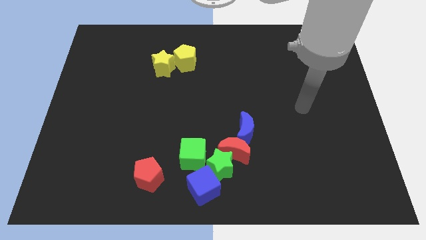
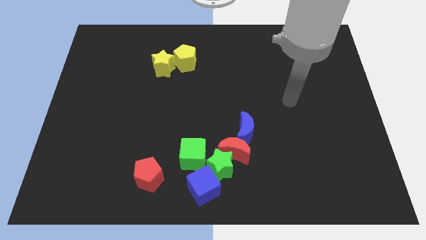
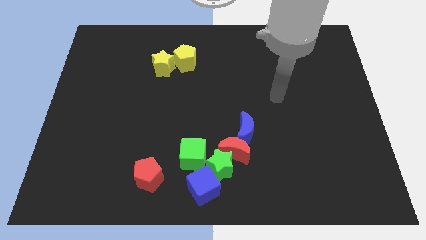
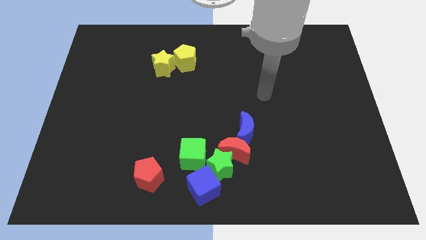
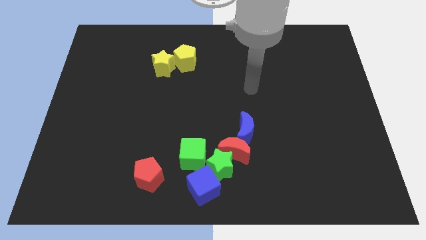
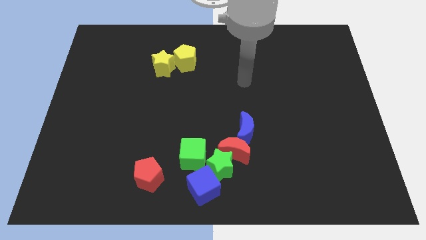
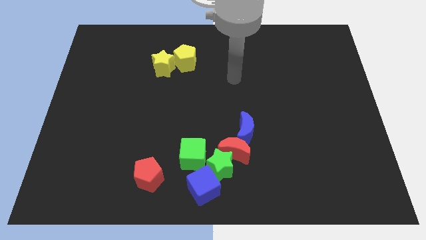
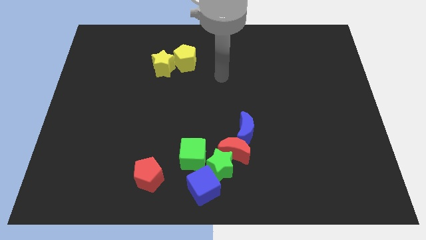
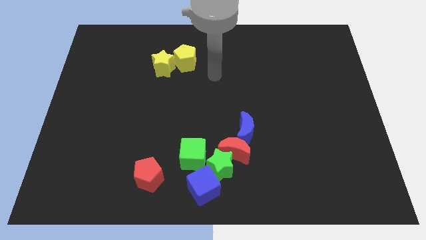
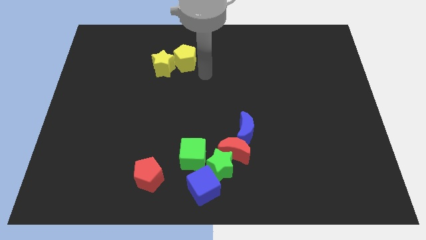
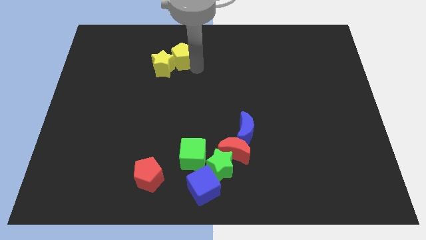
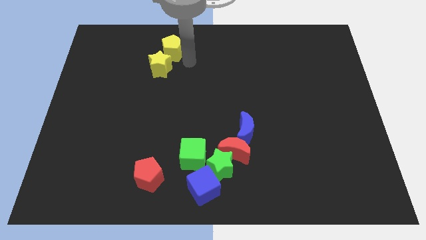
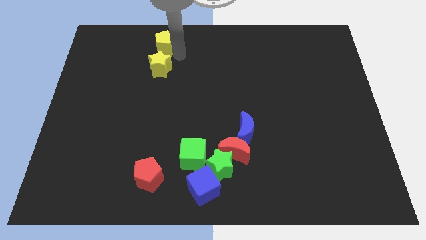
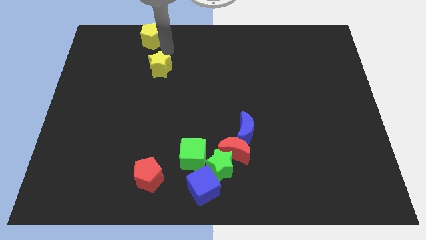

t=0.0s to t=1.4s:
pull the yellow star apart from the yellow pentagon

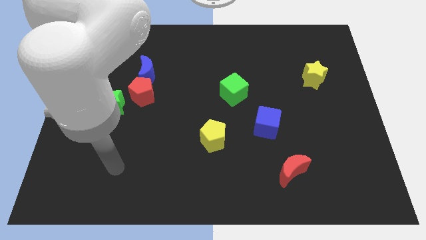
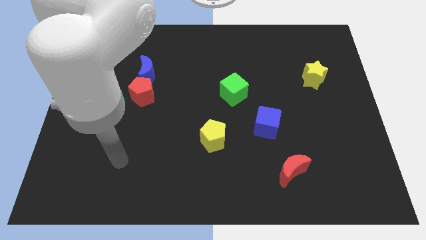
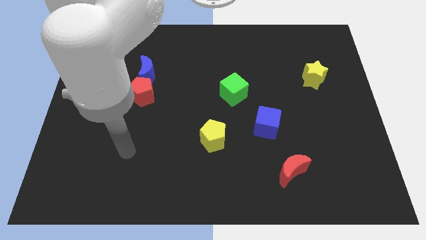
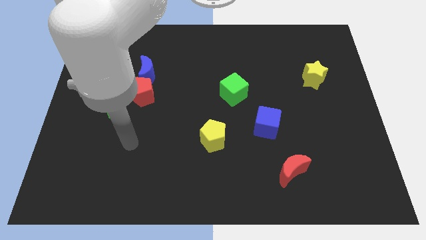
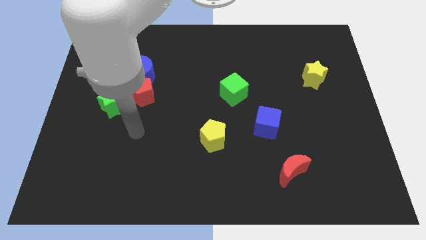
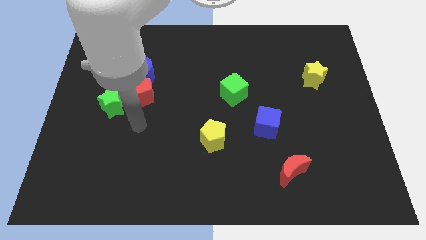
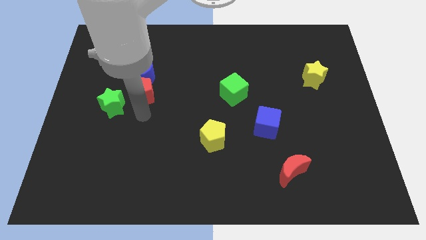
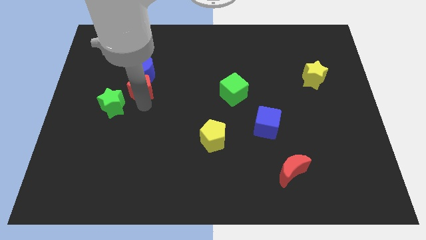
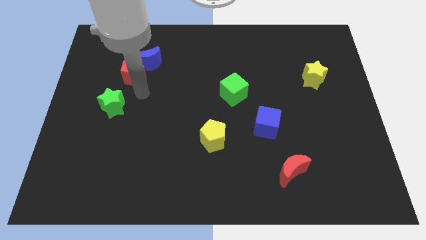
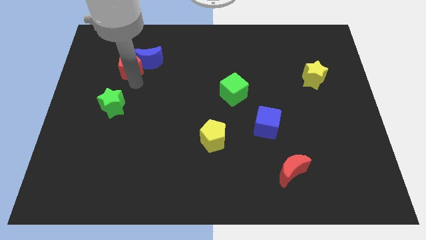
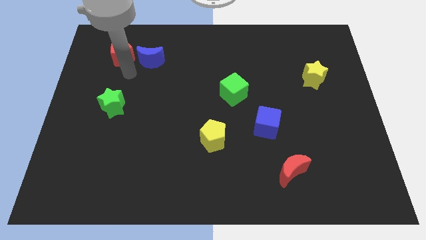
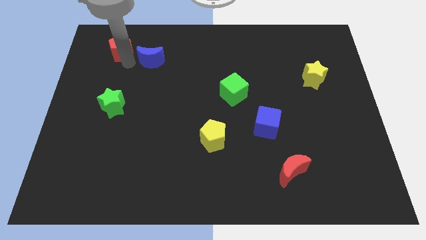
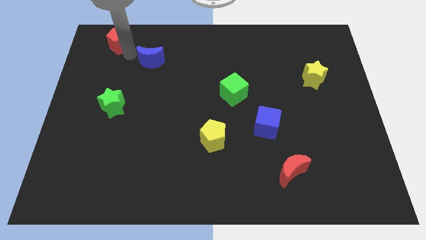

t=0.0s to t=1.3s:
separate the blue moon from the red pentagon

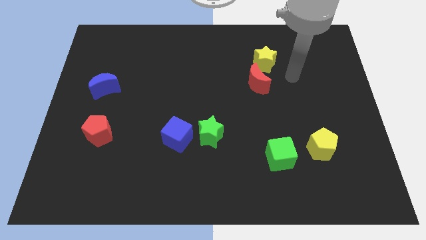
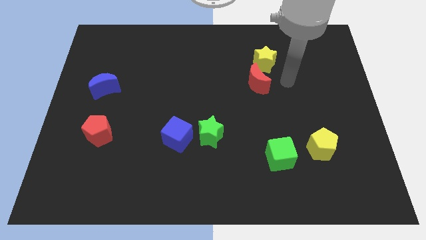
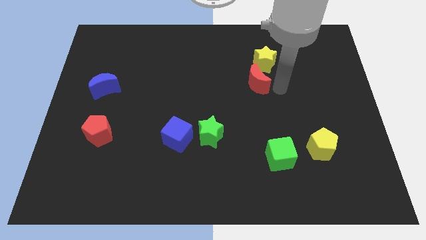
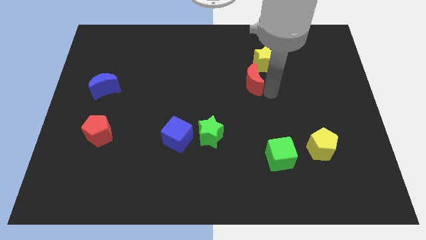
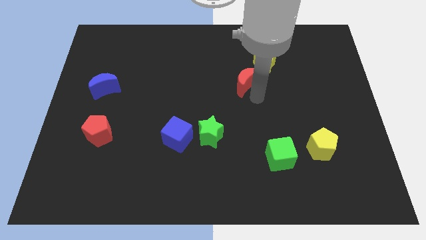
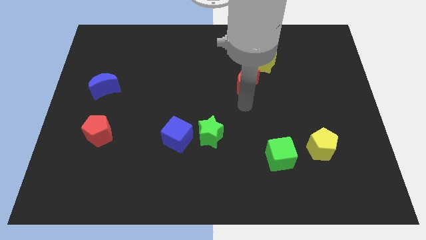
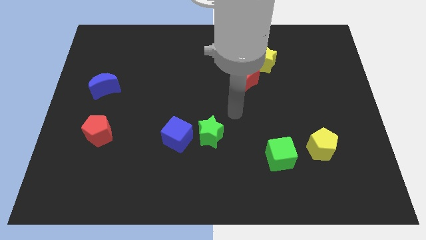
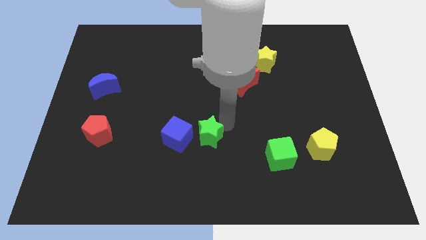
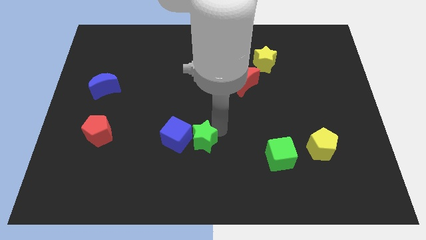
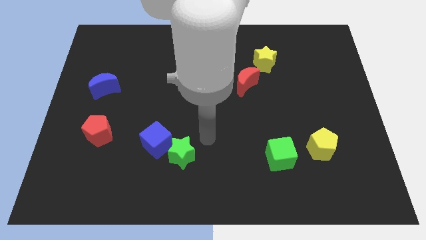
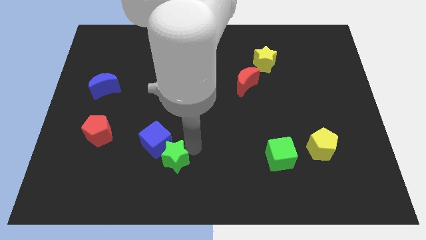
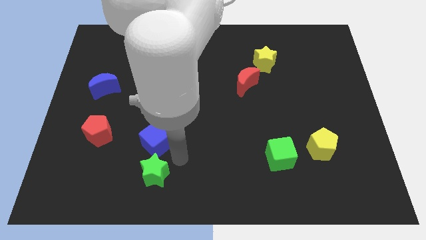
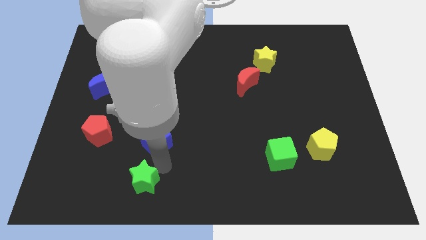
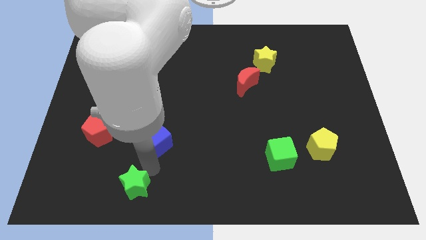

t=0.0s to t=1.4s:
separate the blue cube from the green star

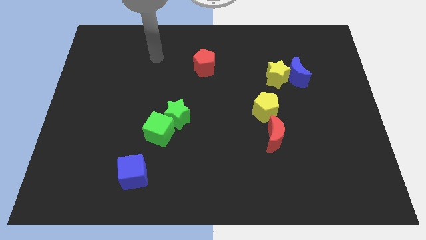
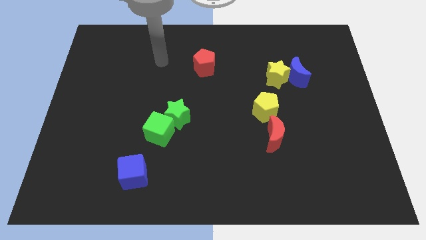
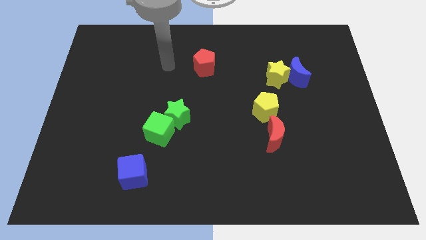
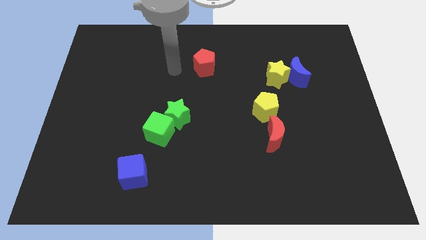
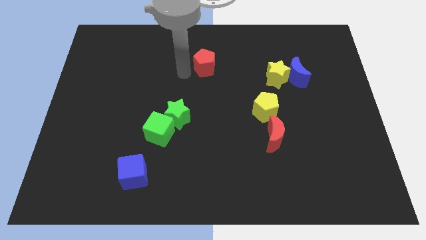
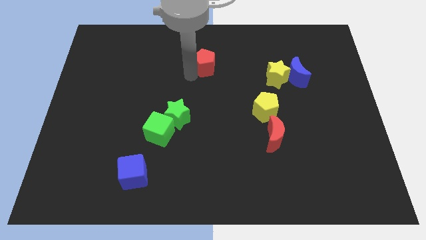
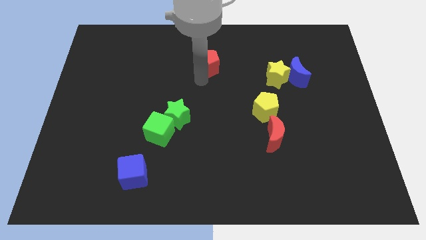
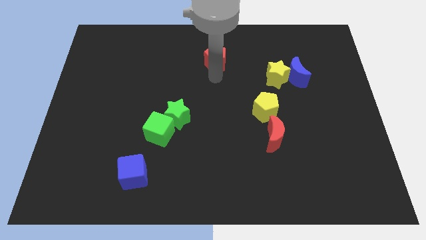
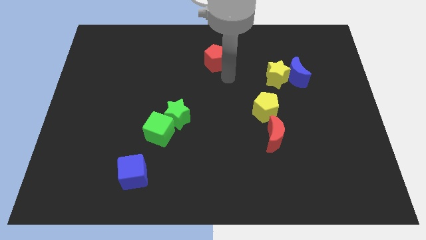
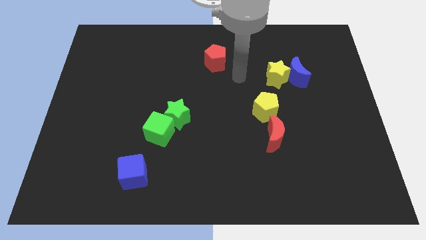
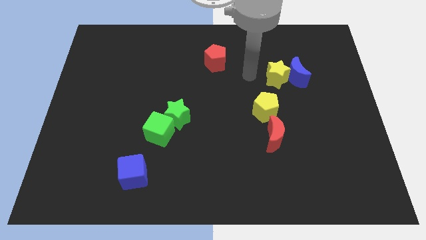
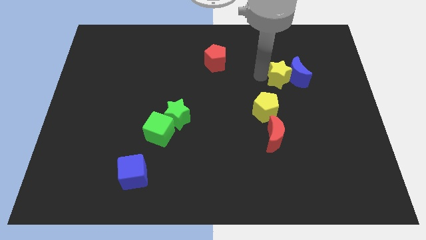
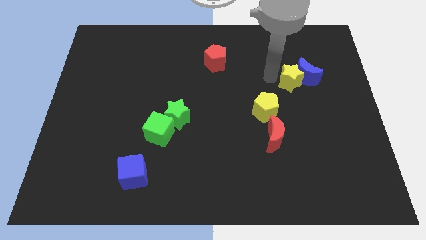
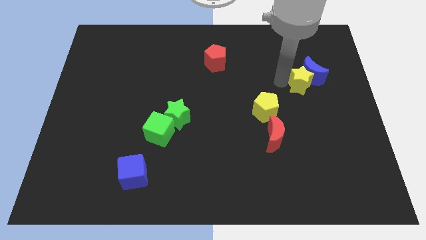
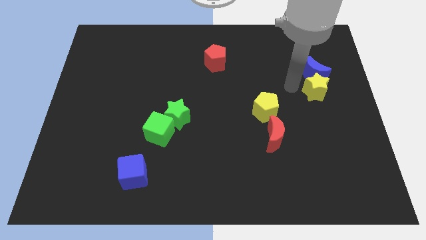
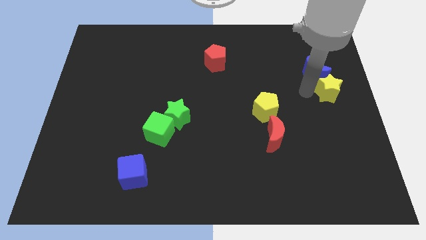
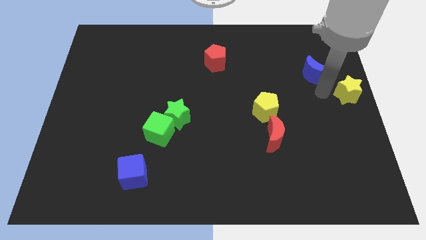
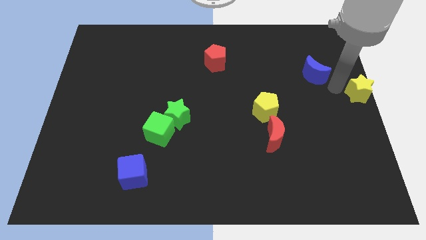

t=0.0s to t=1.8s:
move the blue moon away from the yellow star

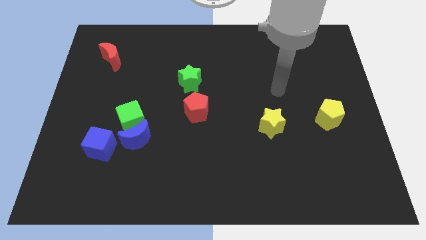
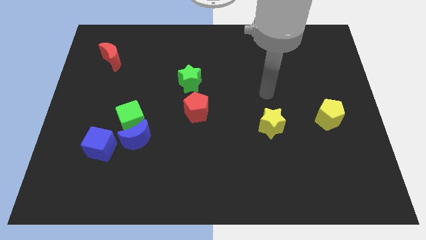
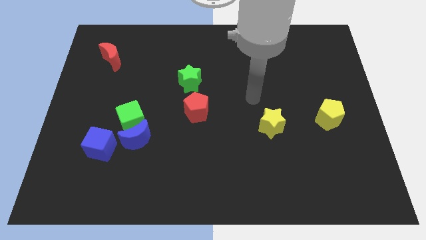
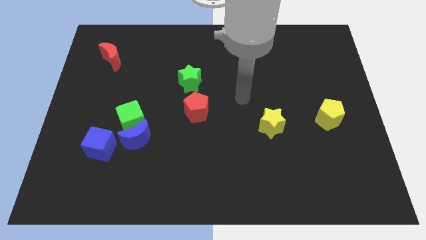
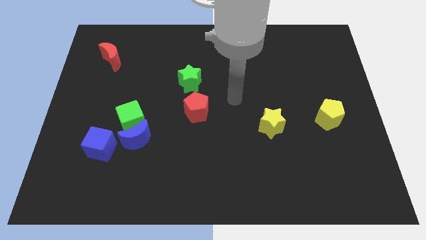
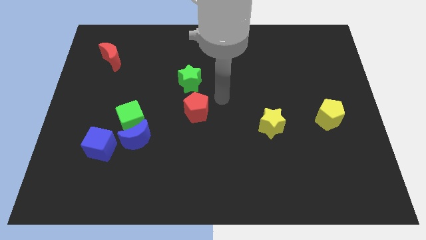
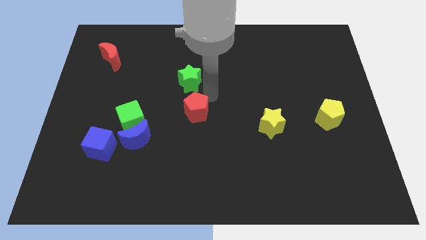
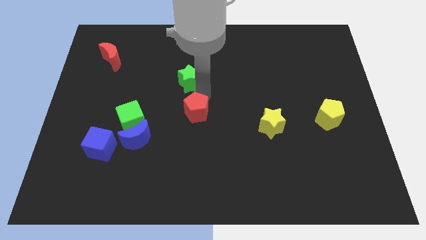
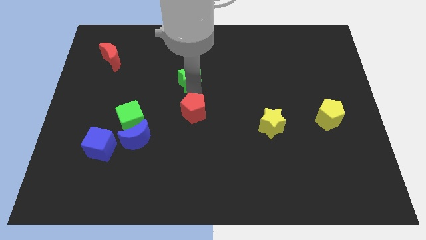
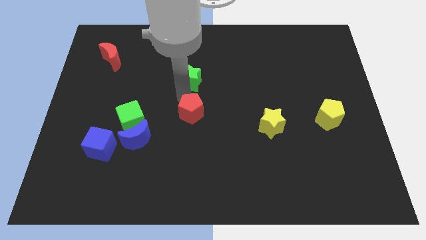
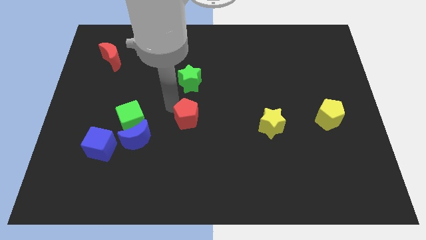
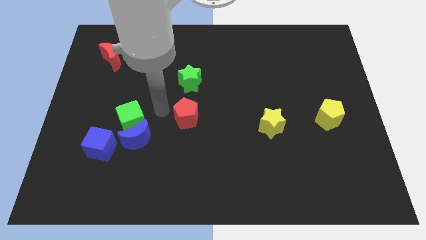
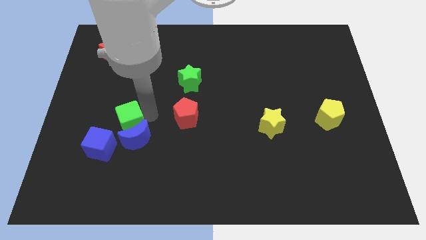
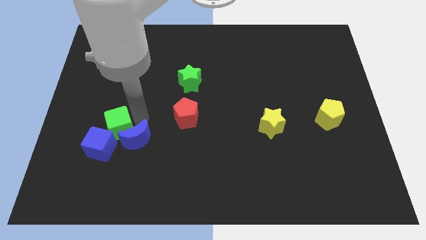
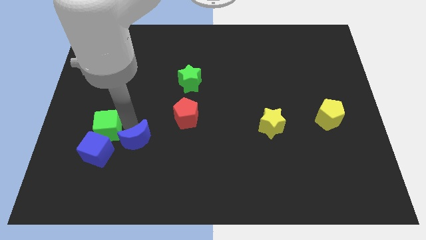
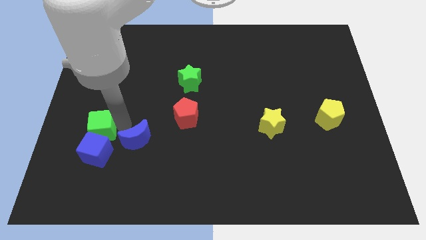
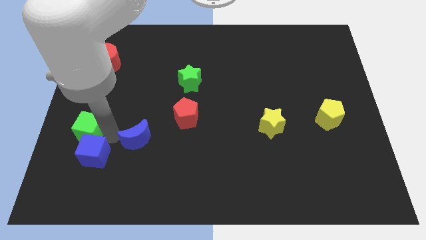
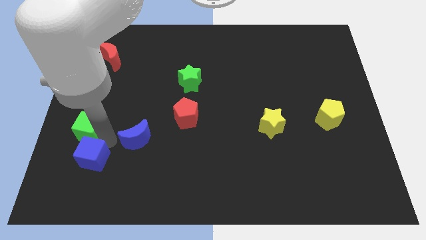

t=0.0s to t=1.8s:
separate the blue moon from the green cube and blue cube

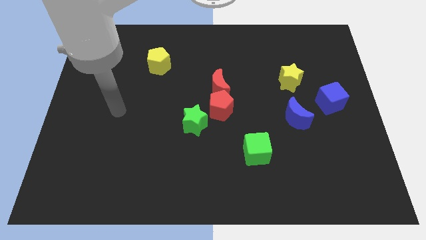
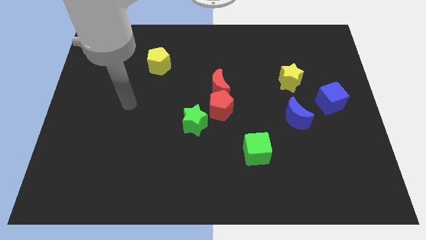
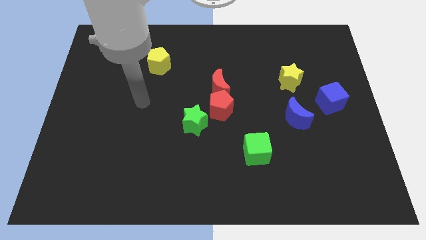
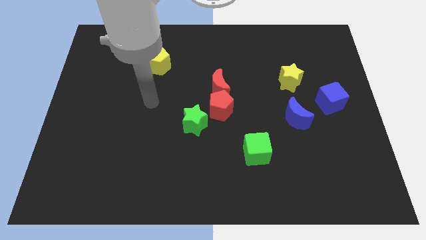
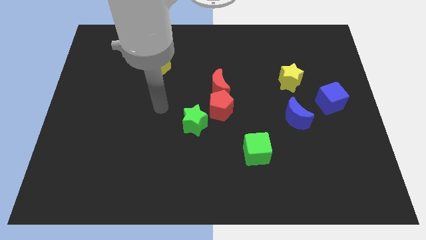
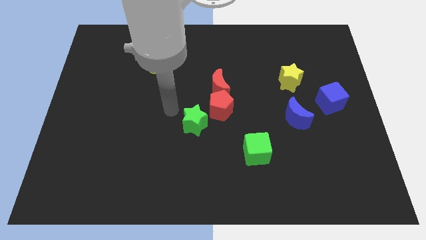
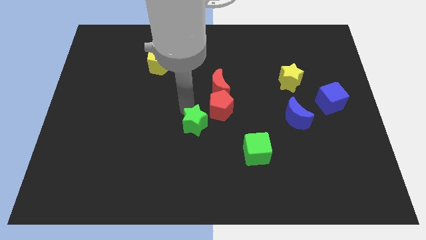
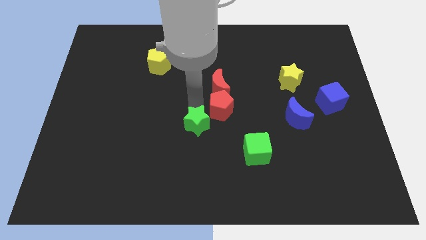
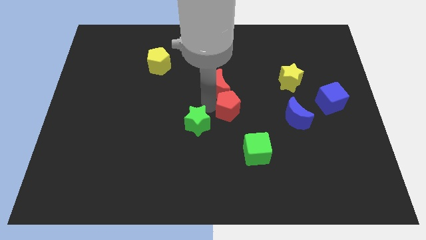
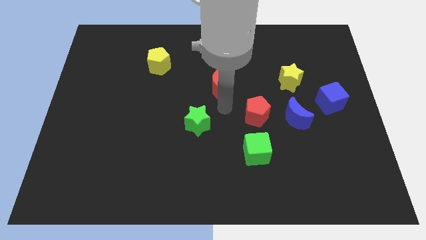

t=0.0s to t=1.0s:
separate the red moon from the red pentagon

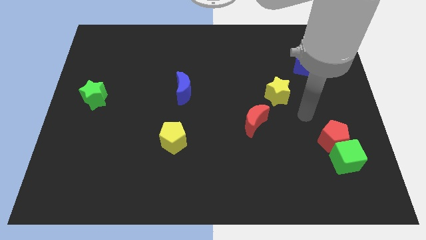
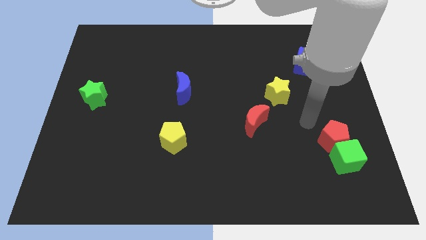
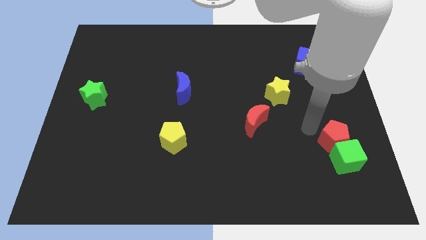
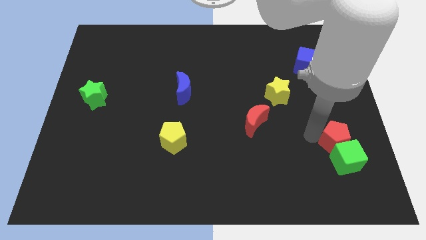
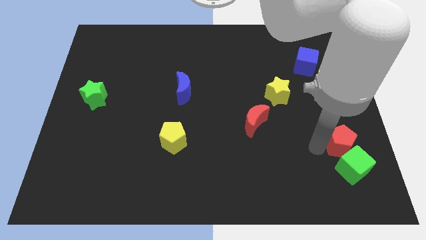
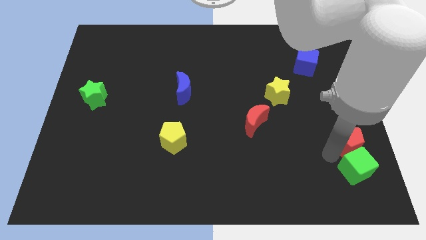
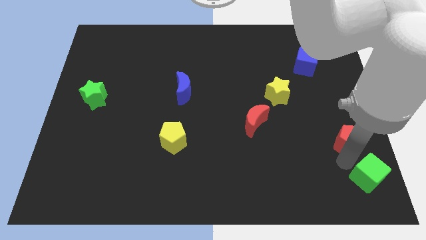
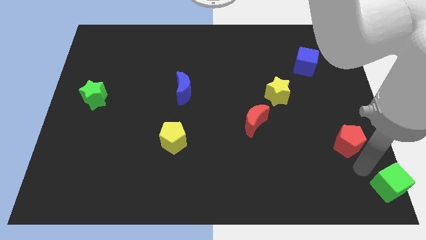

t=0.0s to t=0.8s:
separate the red pentagon from the green cube
